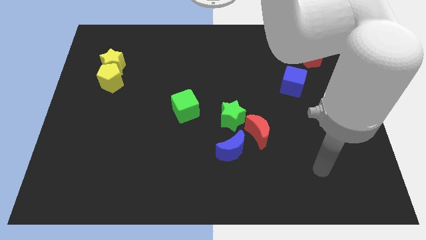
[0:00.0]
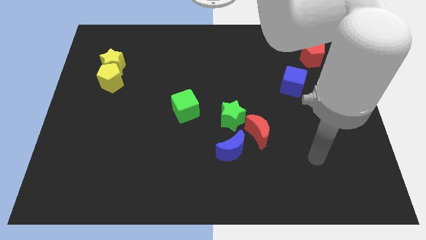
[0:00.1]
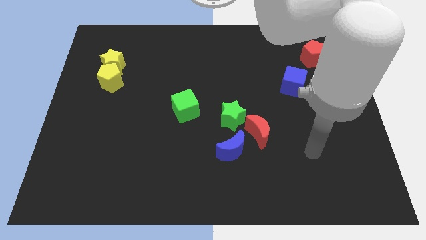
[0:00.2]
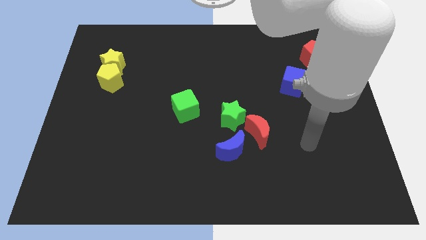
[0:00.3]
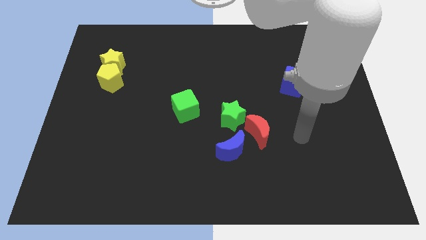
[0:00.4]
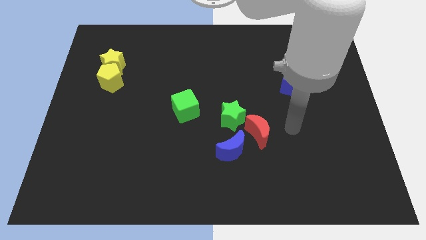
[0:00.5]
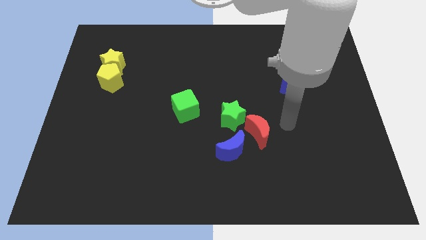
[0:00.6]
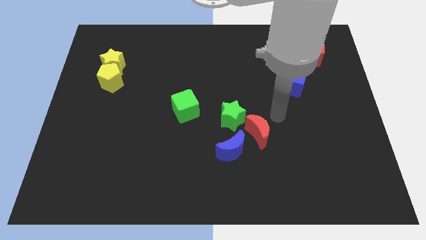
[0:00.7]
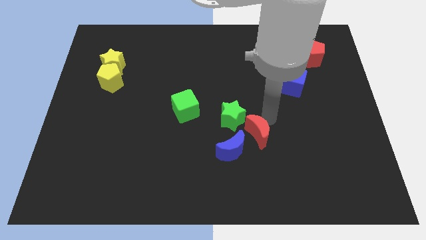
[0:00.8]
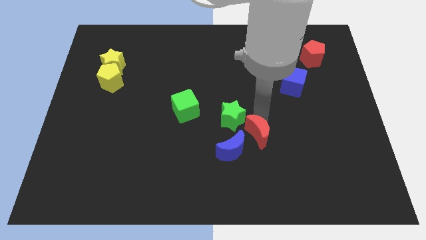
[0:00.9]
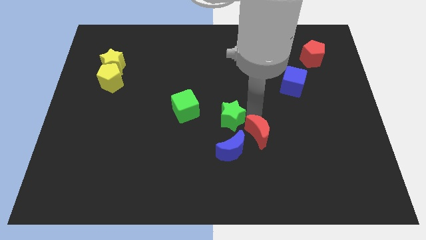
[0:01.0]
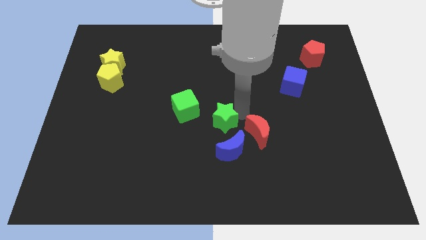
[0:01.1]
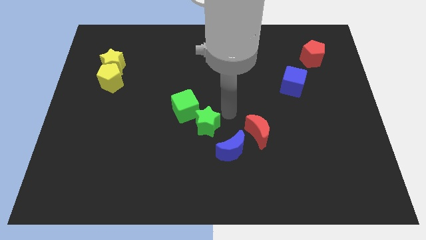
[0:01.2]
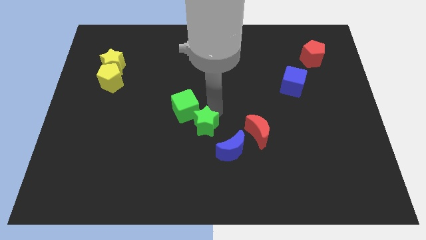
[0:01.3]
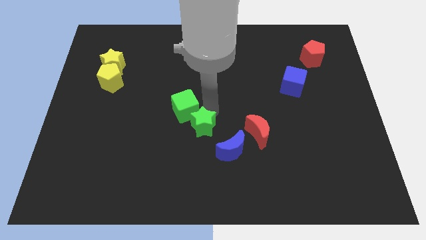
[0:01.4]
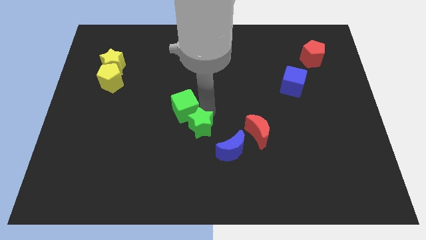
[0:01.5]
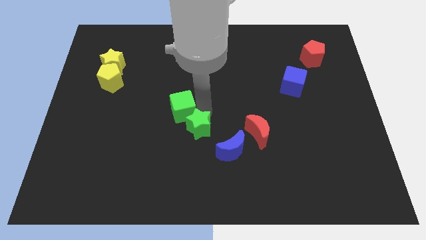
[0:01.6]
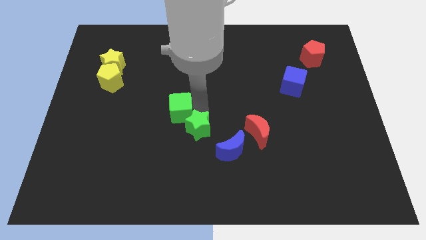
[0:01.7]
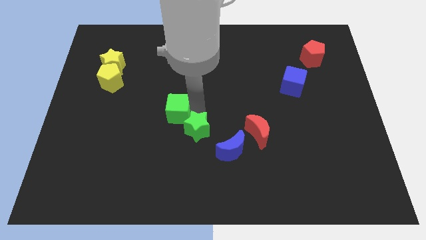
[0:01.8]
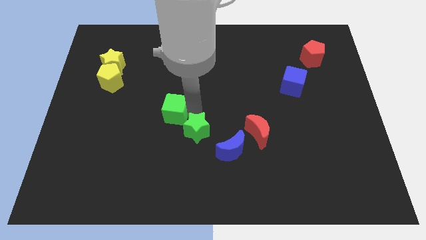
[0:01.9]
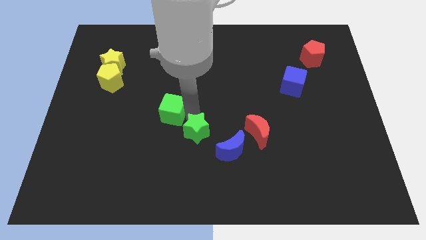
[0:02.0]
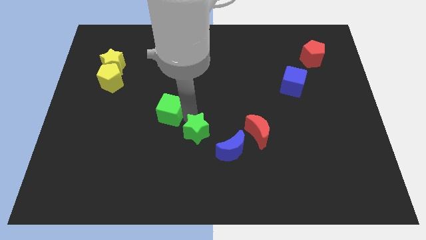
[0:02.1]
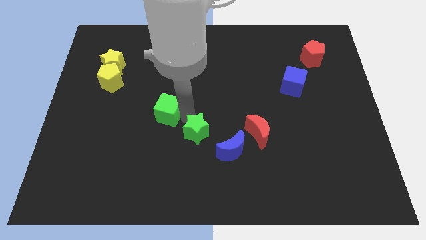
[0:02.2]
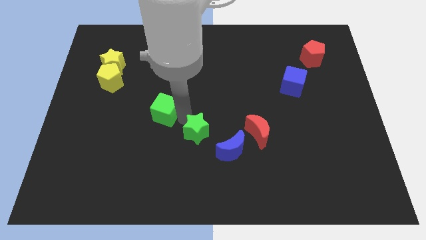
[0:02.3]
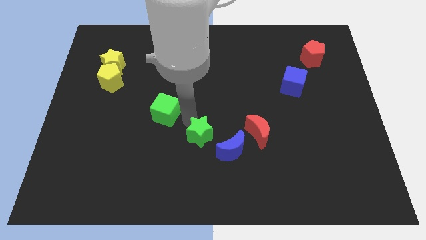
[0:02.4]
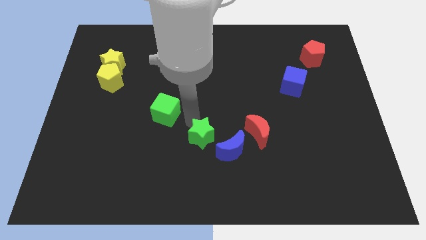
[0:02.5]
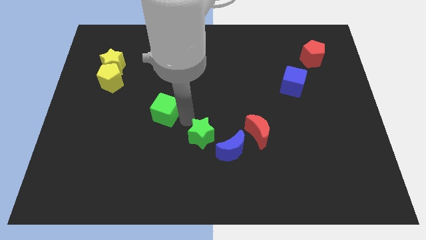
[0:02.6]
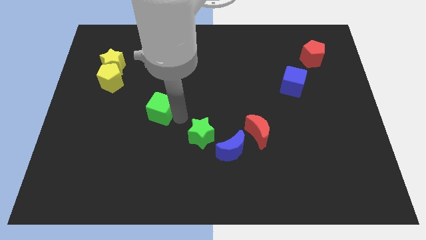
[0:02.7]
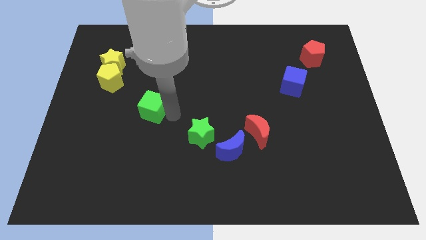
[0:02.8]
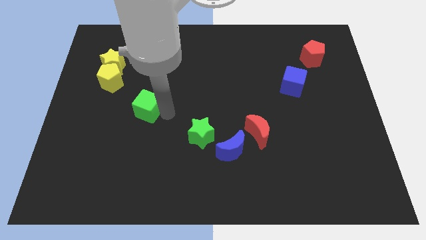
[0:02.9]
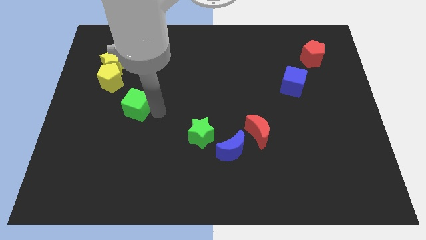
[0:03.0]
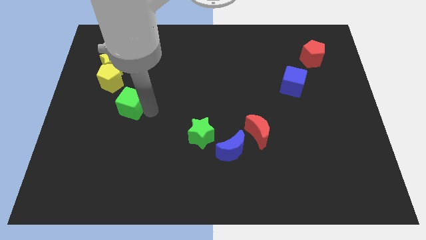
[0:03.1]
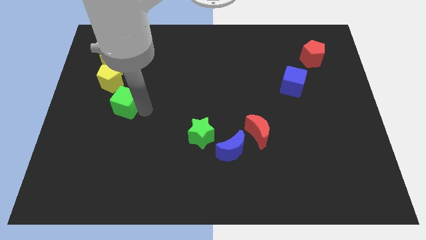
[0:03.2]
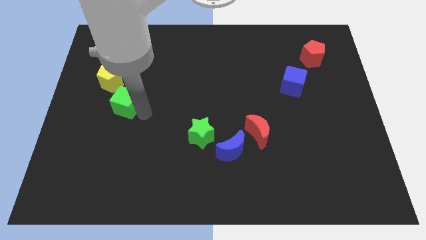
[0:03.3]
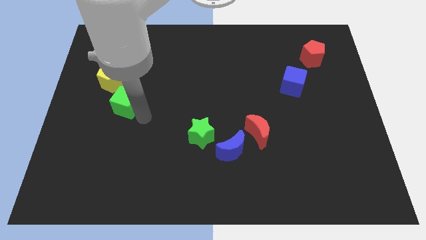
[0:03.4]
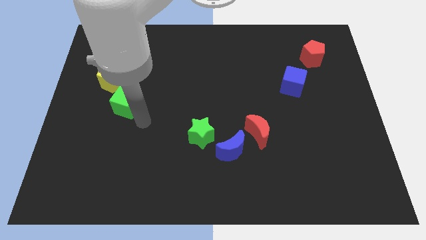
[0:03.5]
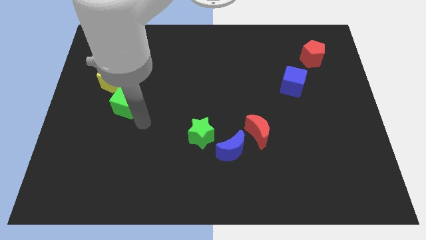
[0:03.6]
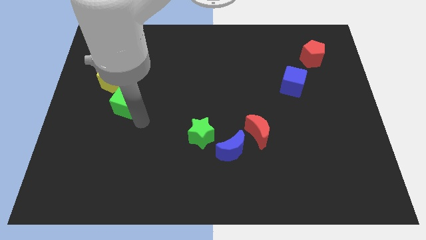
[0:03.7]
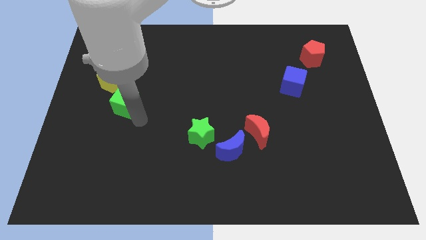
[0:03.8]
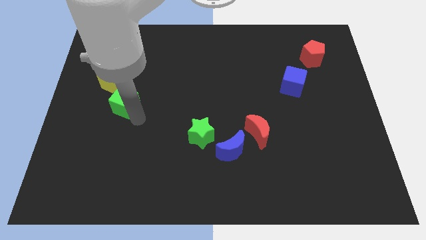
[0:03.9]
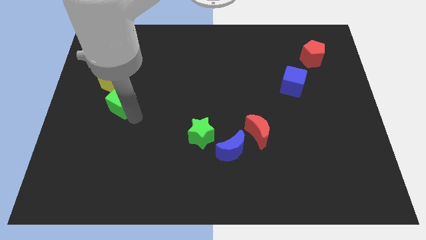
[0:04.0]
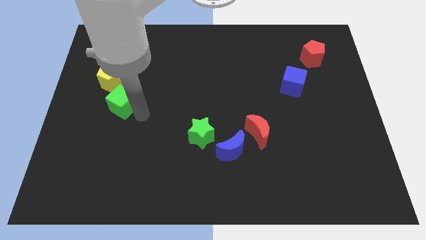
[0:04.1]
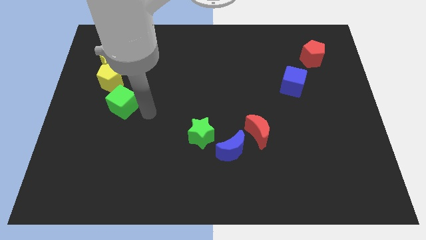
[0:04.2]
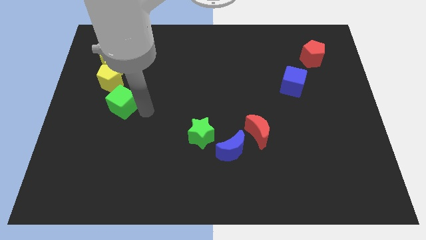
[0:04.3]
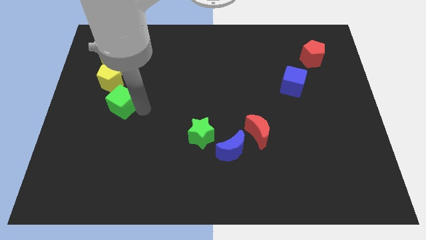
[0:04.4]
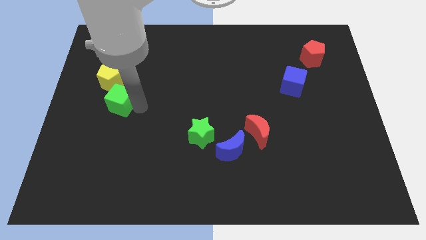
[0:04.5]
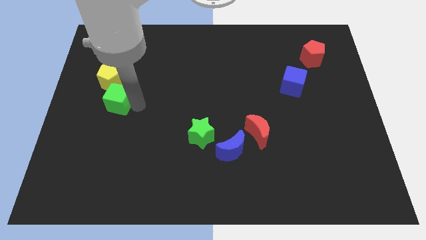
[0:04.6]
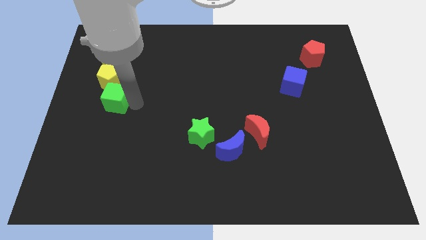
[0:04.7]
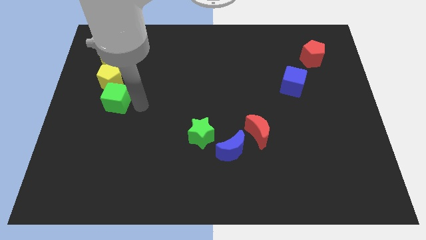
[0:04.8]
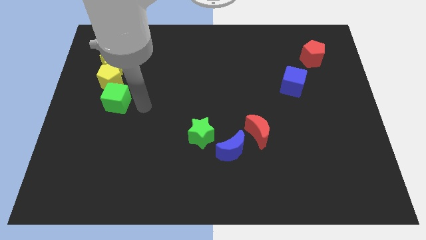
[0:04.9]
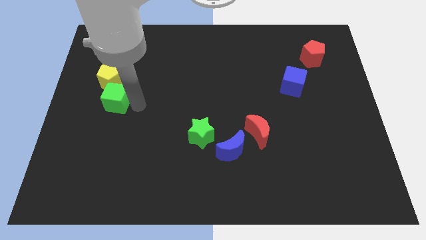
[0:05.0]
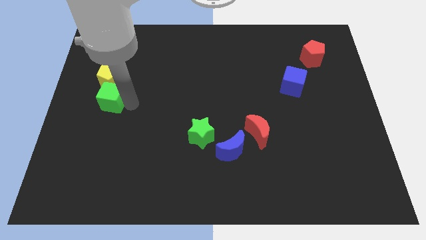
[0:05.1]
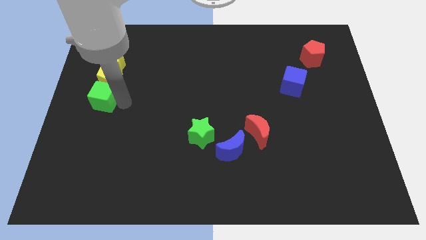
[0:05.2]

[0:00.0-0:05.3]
put the green cube to the left side of the board
